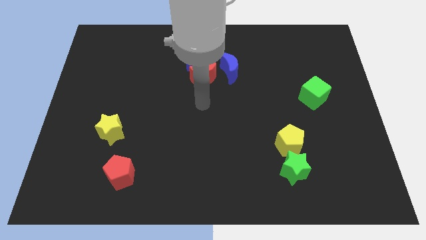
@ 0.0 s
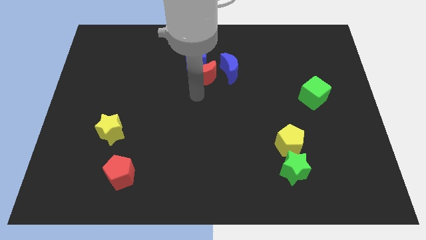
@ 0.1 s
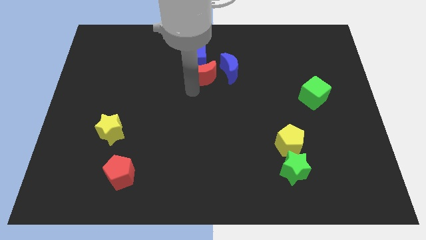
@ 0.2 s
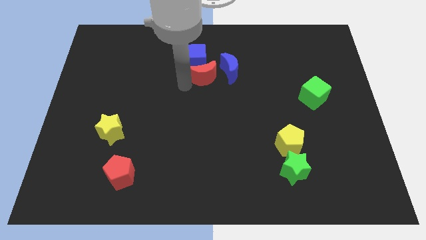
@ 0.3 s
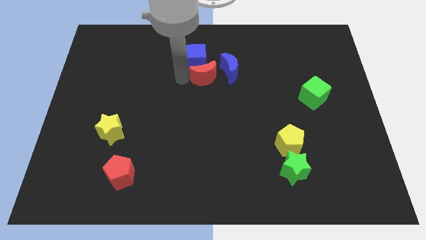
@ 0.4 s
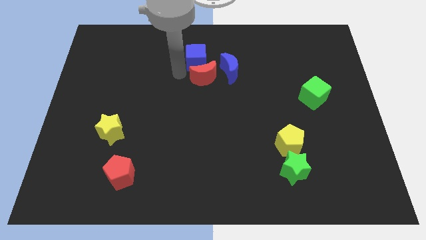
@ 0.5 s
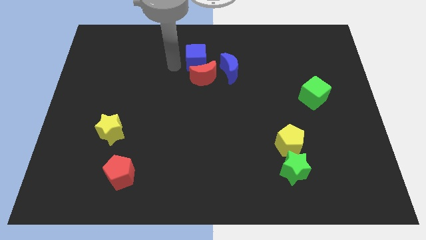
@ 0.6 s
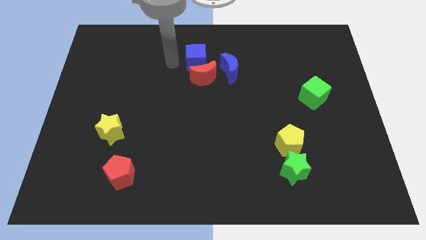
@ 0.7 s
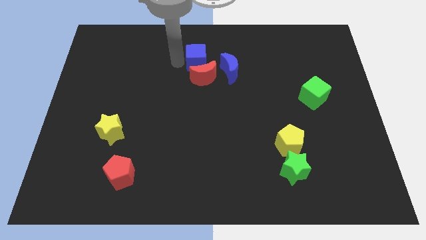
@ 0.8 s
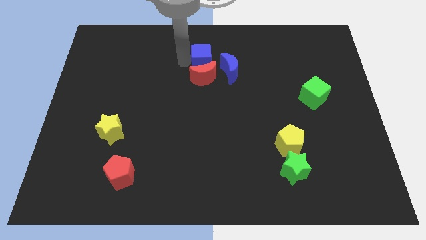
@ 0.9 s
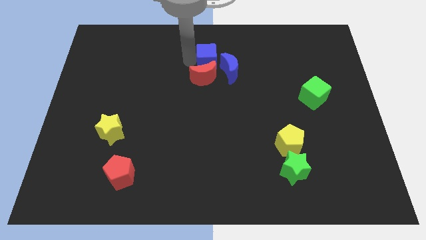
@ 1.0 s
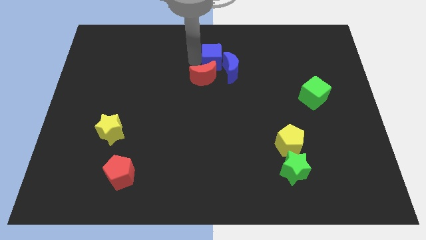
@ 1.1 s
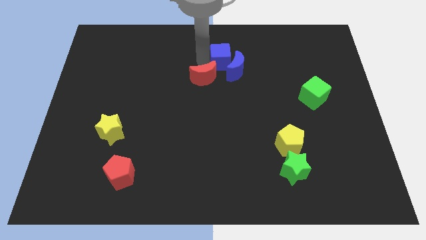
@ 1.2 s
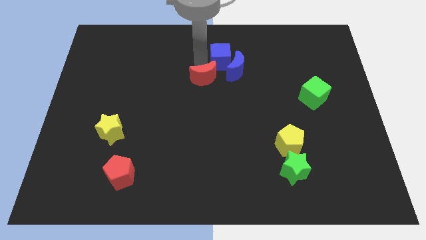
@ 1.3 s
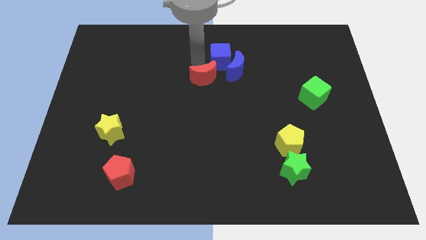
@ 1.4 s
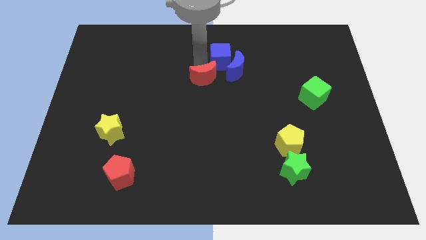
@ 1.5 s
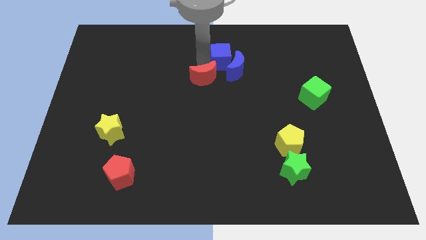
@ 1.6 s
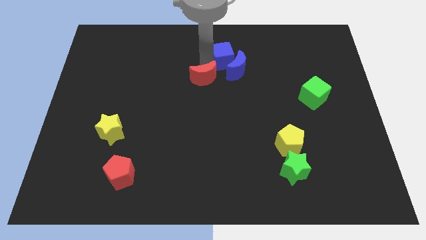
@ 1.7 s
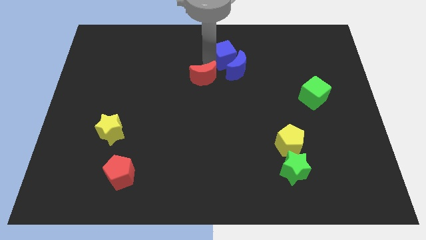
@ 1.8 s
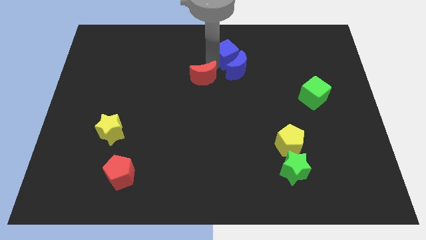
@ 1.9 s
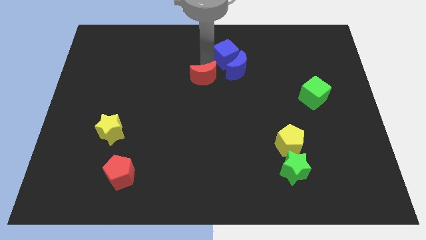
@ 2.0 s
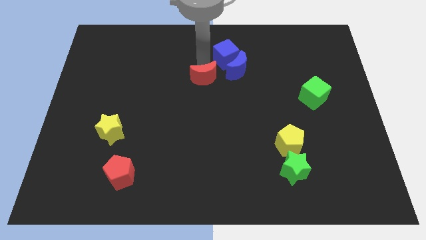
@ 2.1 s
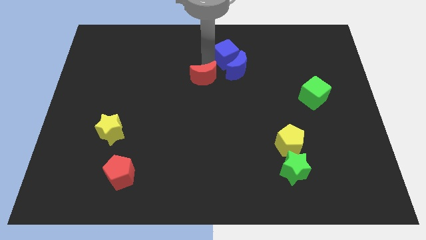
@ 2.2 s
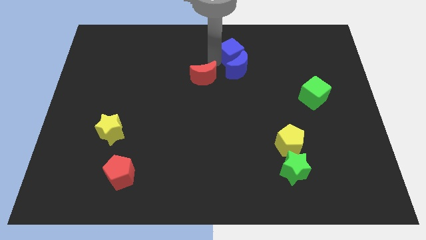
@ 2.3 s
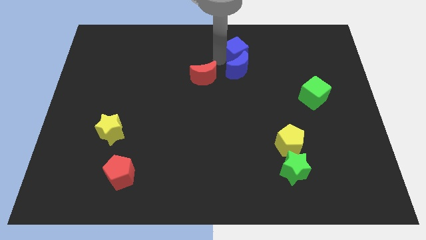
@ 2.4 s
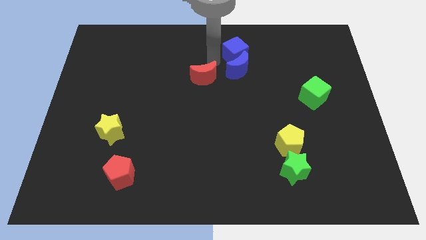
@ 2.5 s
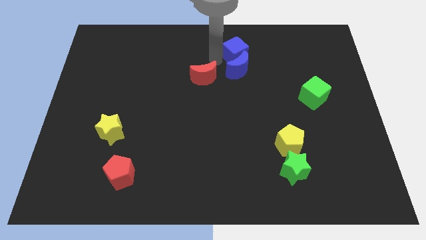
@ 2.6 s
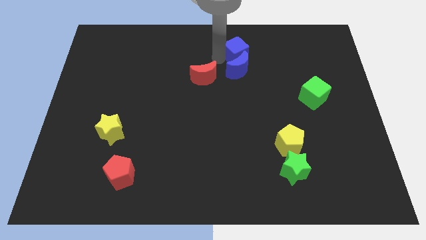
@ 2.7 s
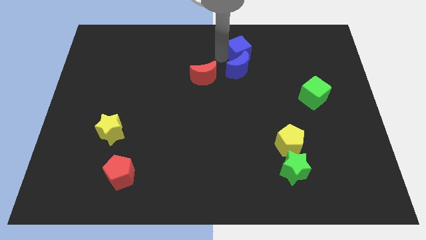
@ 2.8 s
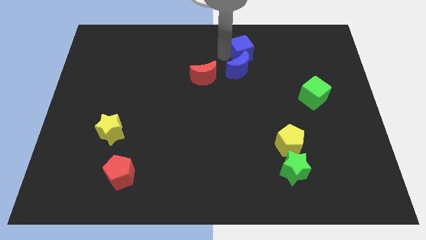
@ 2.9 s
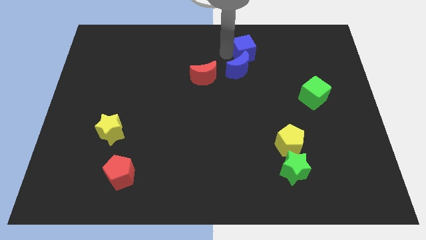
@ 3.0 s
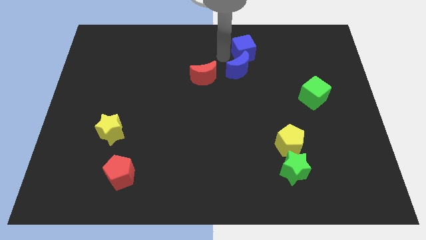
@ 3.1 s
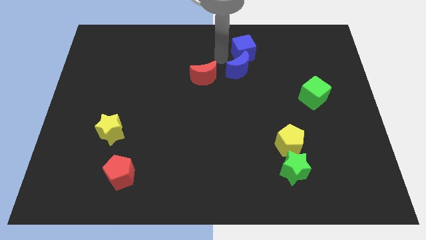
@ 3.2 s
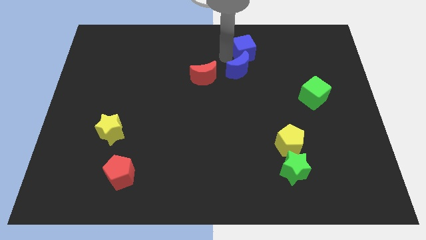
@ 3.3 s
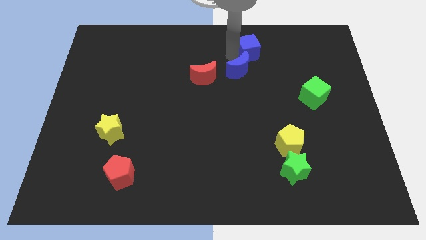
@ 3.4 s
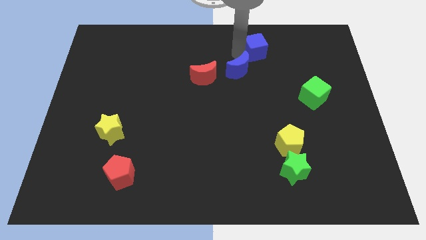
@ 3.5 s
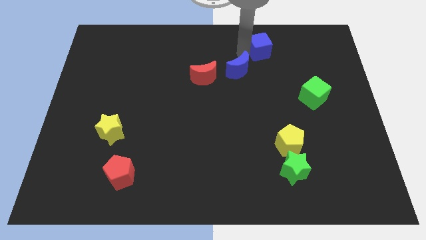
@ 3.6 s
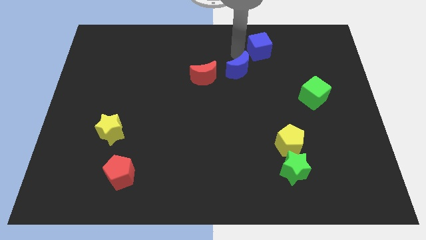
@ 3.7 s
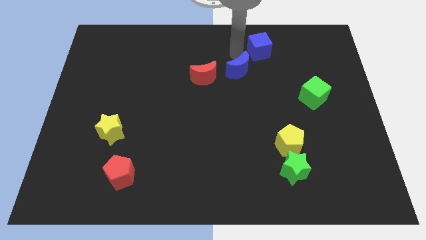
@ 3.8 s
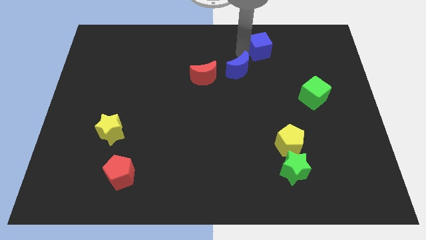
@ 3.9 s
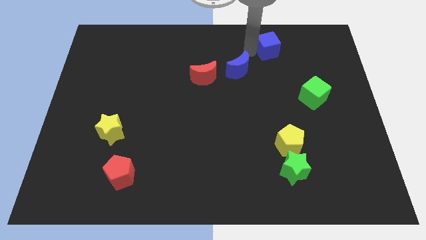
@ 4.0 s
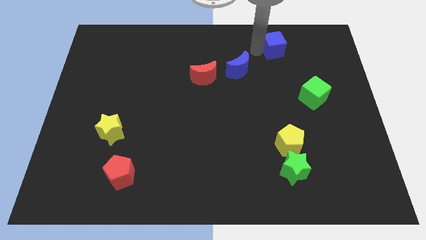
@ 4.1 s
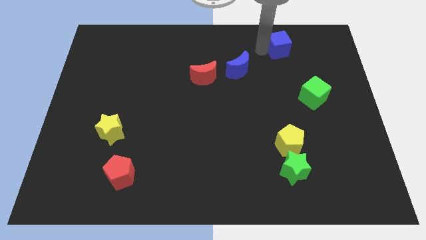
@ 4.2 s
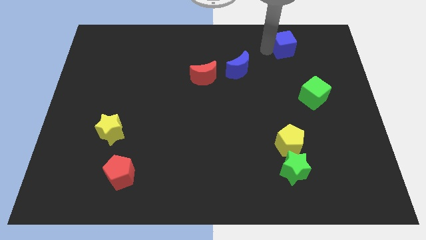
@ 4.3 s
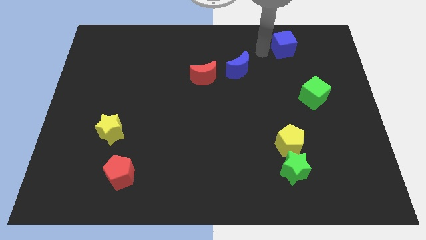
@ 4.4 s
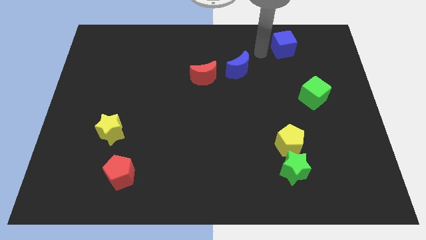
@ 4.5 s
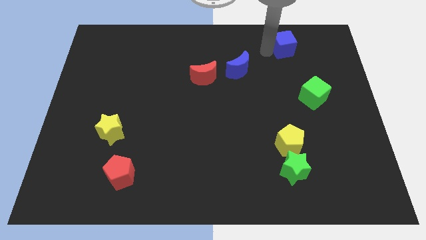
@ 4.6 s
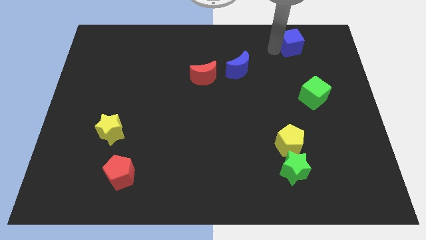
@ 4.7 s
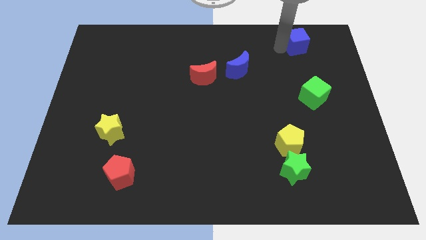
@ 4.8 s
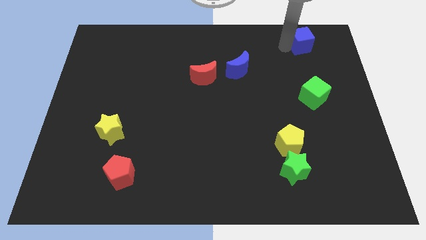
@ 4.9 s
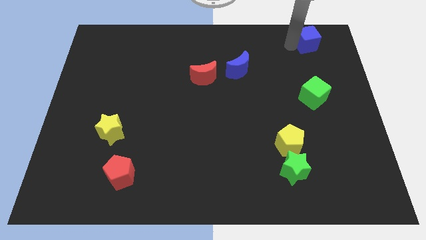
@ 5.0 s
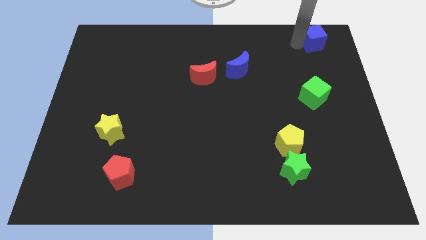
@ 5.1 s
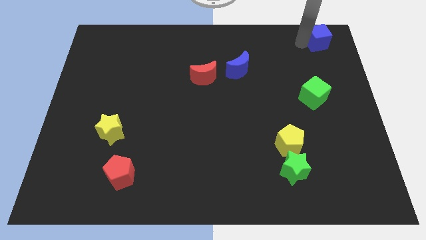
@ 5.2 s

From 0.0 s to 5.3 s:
push the blue cube to the top right corner

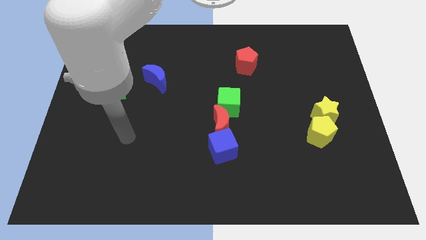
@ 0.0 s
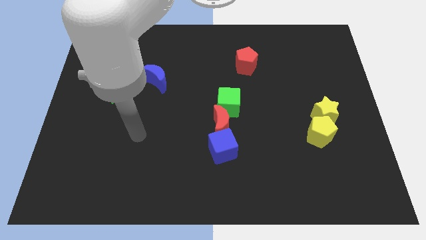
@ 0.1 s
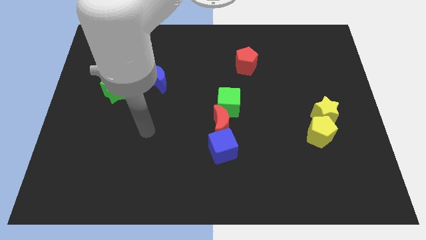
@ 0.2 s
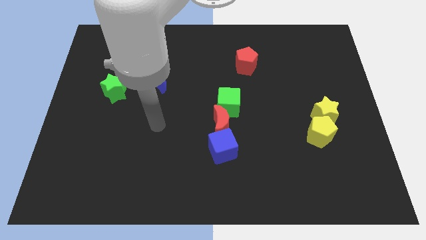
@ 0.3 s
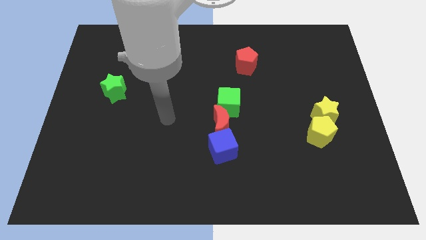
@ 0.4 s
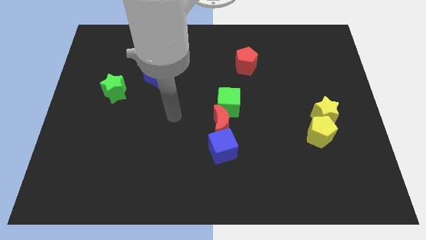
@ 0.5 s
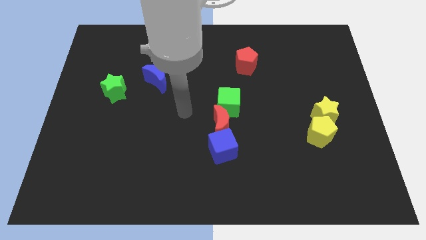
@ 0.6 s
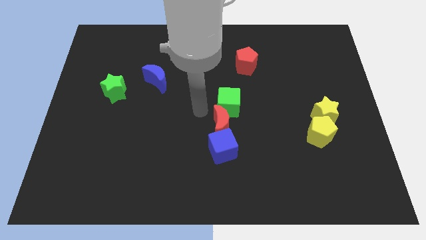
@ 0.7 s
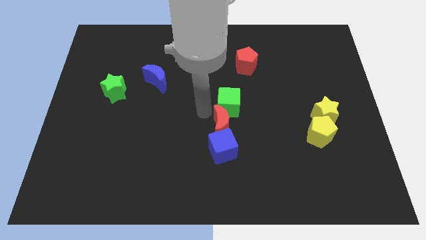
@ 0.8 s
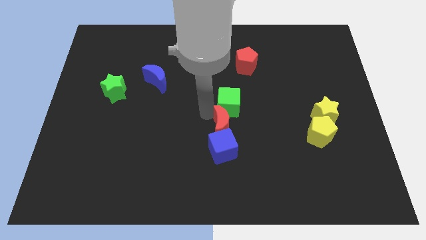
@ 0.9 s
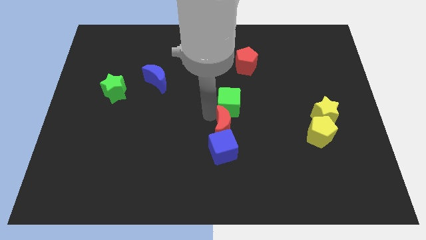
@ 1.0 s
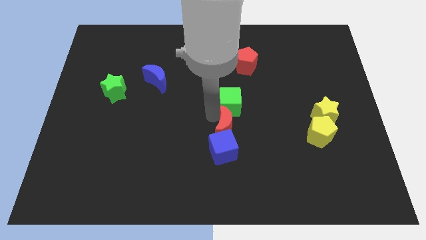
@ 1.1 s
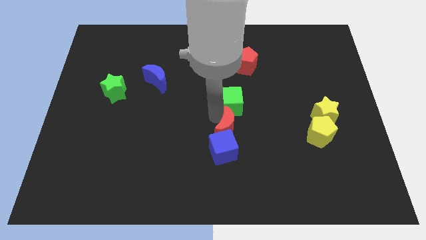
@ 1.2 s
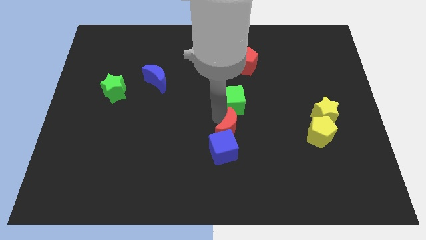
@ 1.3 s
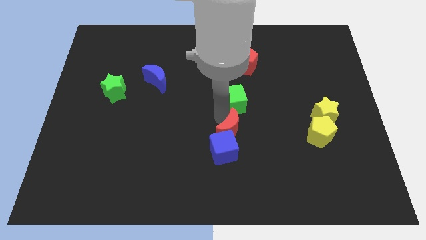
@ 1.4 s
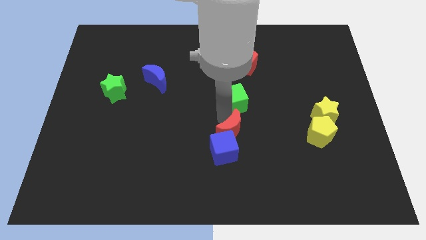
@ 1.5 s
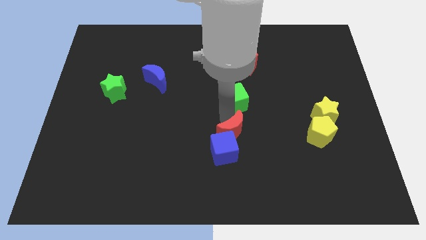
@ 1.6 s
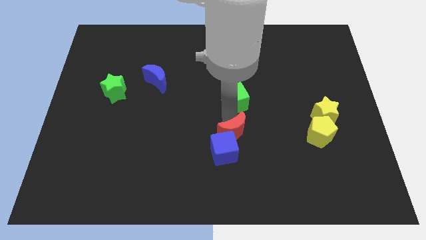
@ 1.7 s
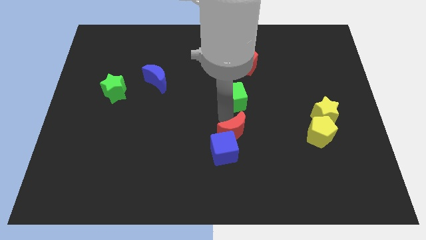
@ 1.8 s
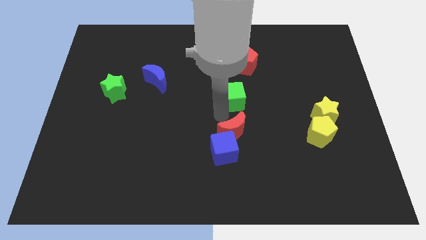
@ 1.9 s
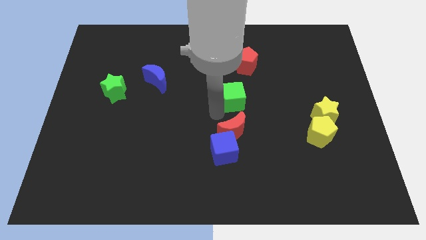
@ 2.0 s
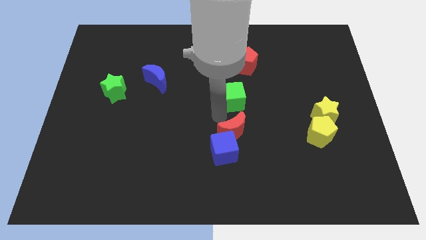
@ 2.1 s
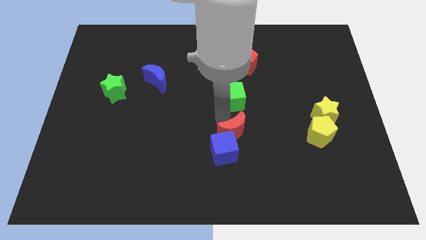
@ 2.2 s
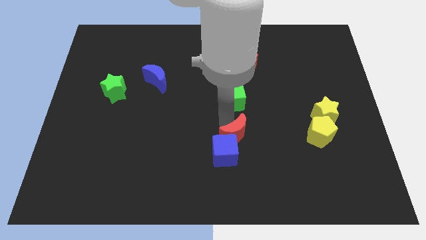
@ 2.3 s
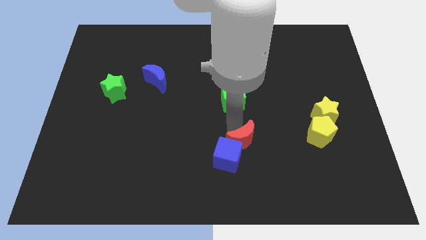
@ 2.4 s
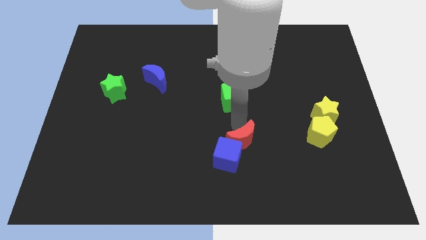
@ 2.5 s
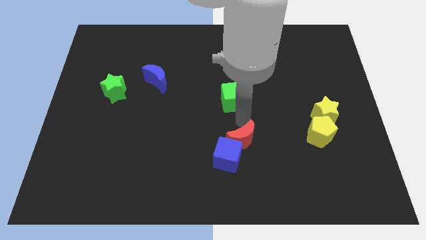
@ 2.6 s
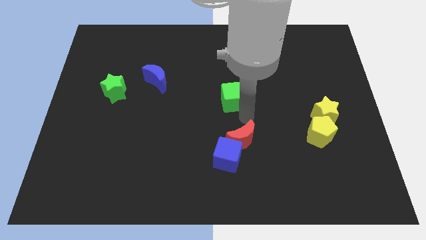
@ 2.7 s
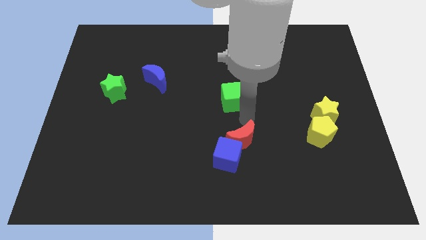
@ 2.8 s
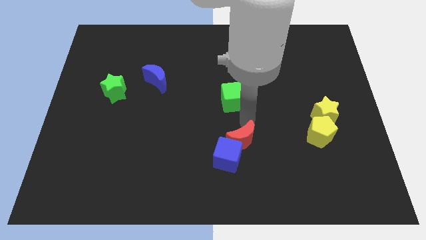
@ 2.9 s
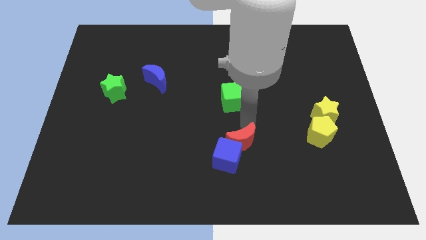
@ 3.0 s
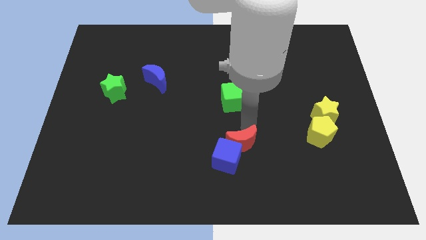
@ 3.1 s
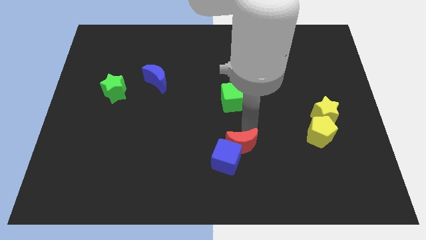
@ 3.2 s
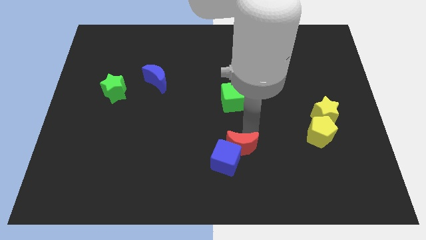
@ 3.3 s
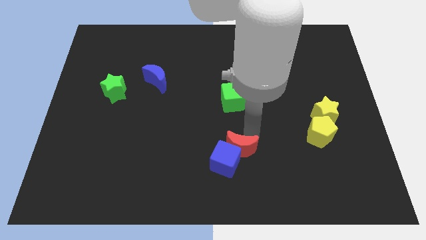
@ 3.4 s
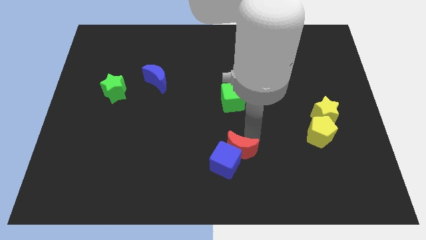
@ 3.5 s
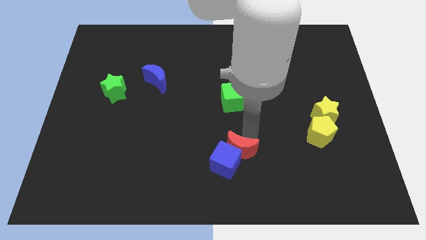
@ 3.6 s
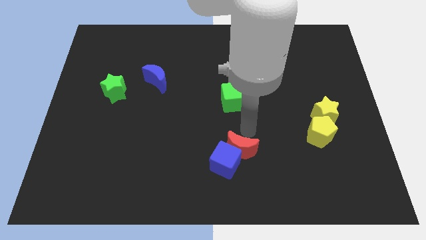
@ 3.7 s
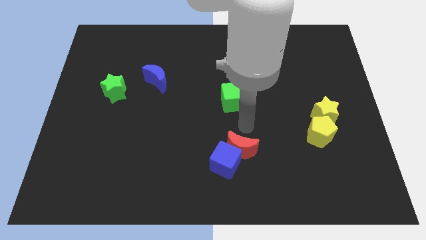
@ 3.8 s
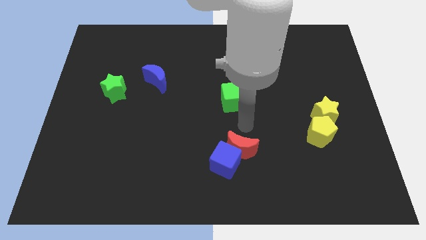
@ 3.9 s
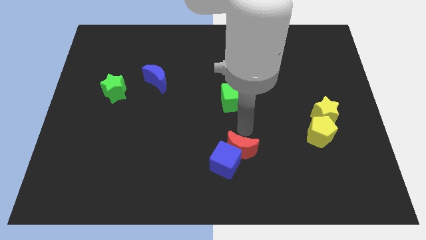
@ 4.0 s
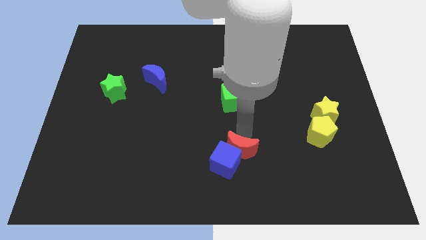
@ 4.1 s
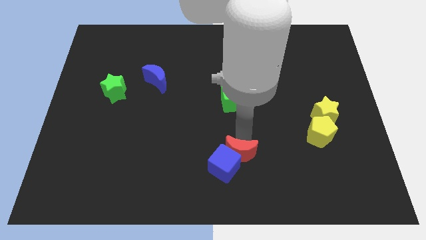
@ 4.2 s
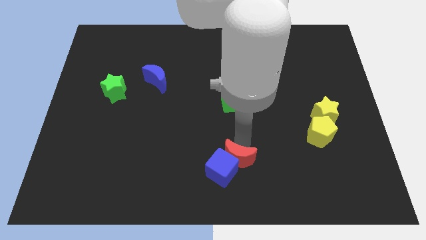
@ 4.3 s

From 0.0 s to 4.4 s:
slide the red moon to the bottom
